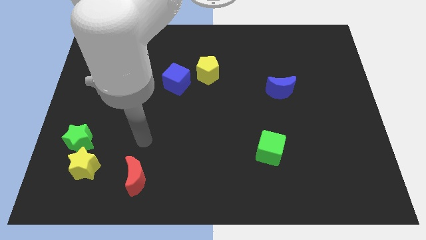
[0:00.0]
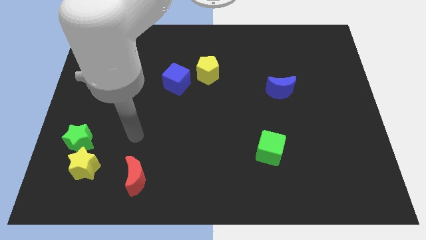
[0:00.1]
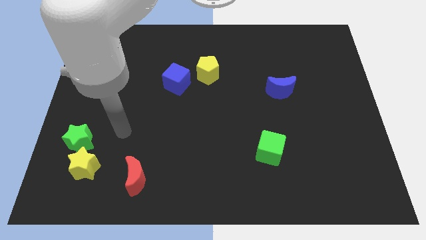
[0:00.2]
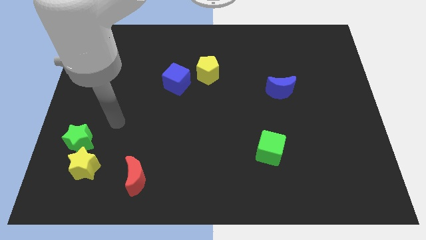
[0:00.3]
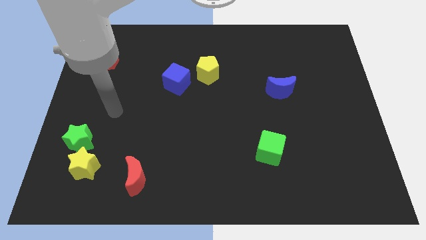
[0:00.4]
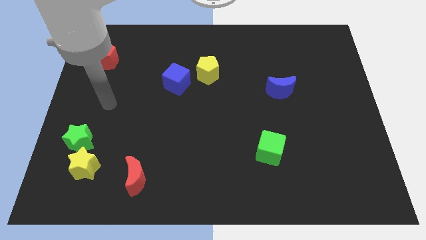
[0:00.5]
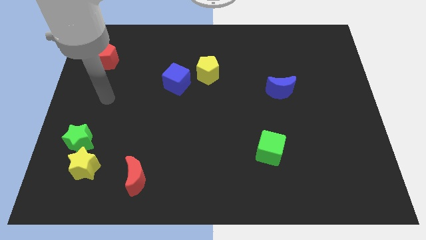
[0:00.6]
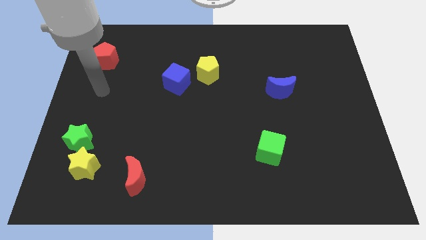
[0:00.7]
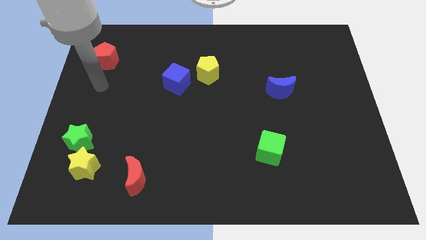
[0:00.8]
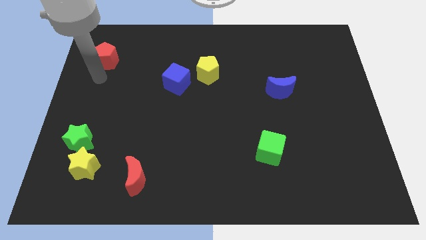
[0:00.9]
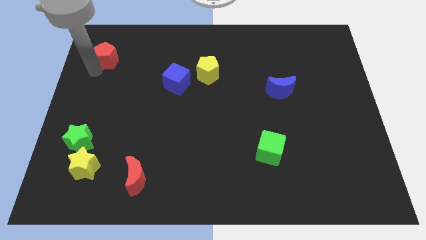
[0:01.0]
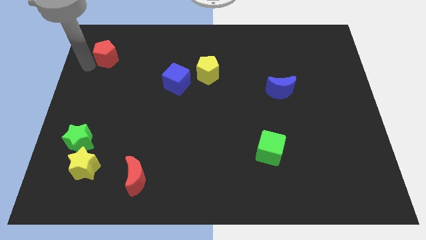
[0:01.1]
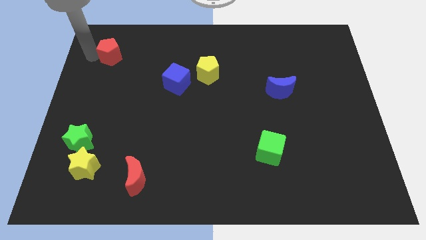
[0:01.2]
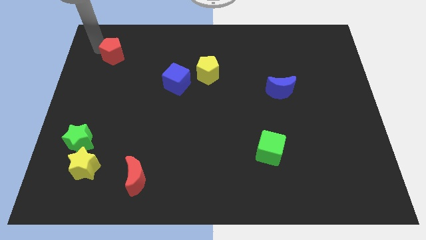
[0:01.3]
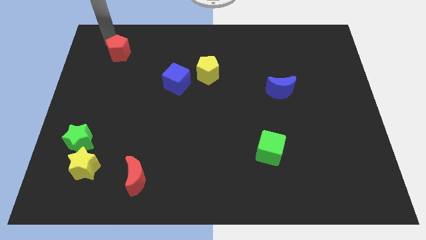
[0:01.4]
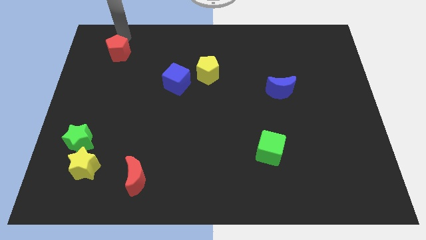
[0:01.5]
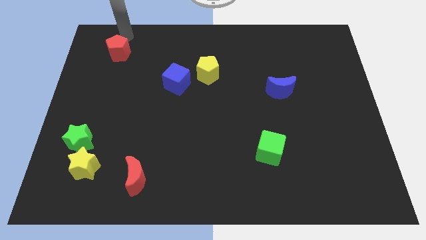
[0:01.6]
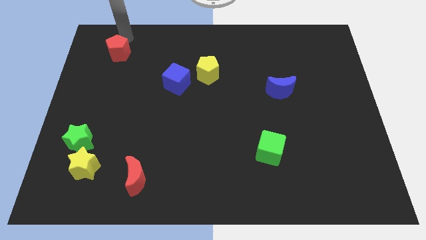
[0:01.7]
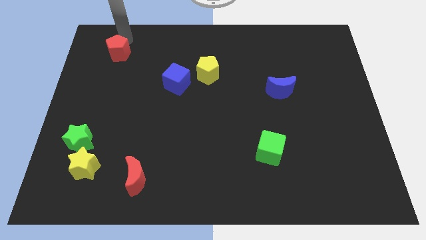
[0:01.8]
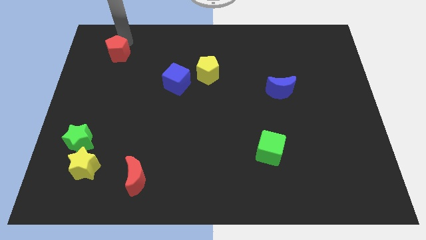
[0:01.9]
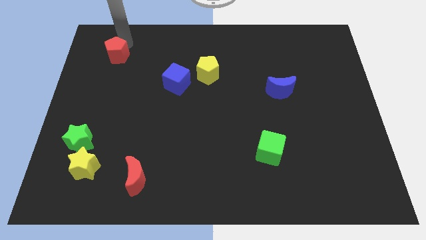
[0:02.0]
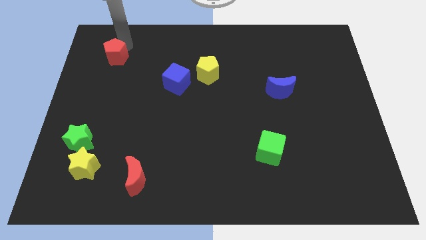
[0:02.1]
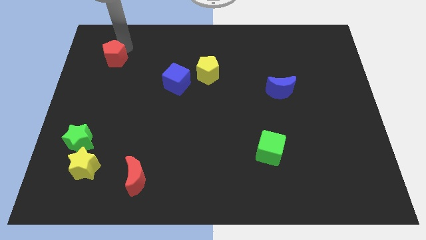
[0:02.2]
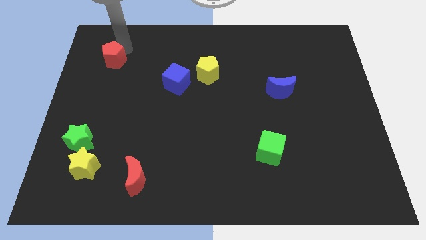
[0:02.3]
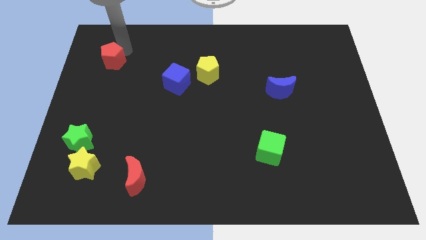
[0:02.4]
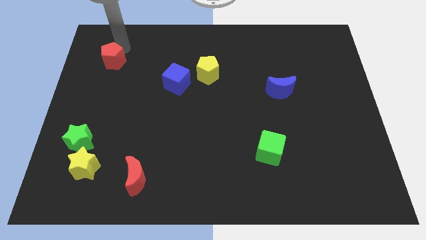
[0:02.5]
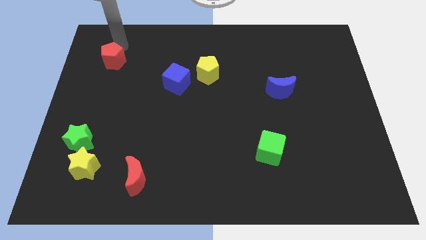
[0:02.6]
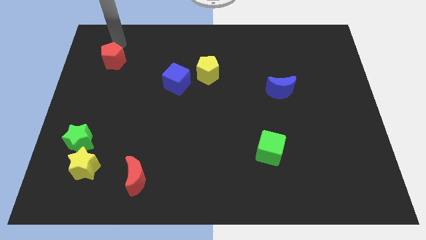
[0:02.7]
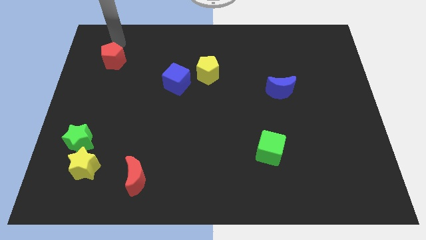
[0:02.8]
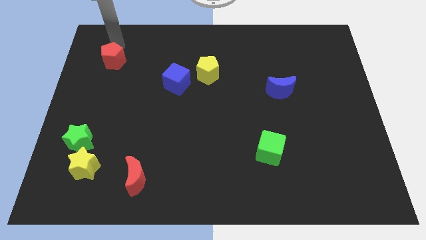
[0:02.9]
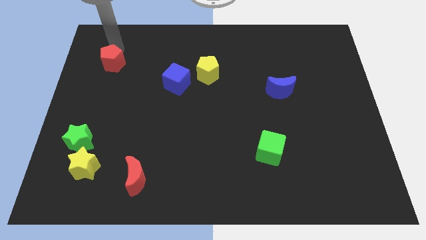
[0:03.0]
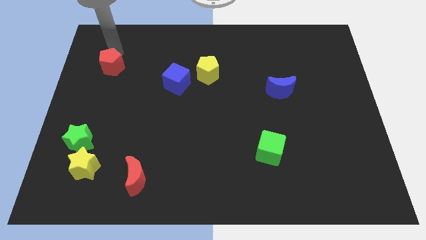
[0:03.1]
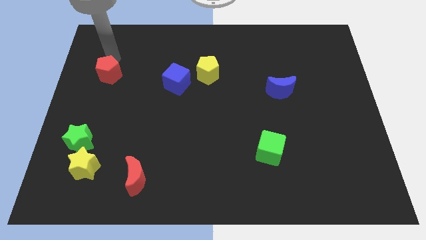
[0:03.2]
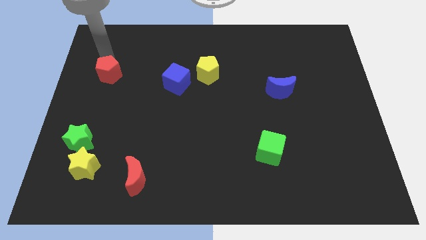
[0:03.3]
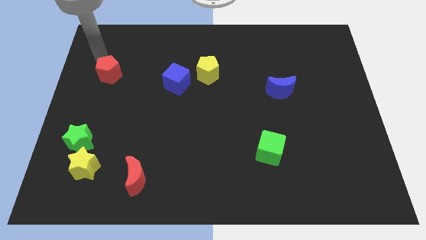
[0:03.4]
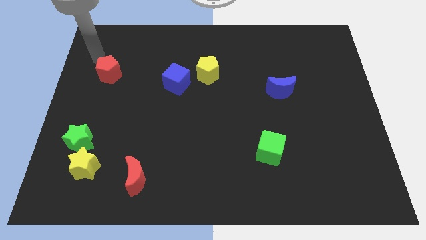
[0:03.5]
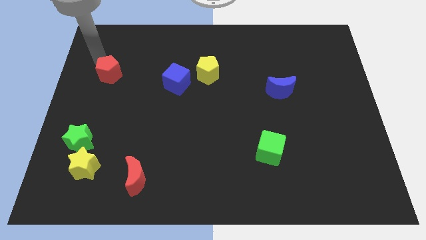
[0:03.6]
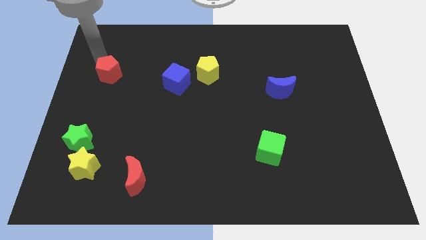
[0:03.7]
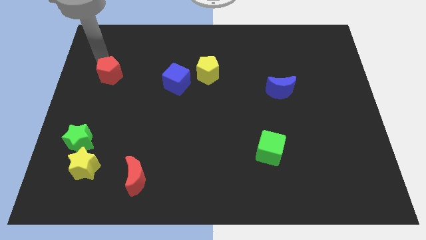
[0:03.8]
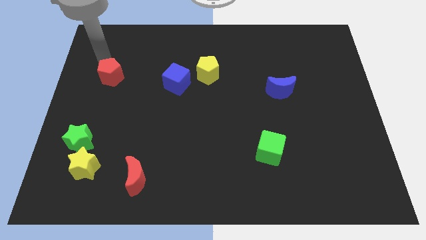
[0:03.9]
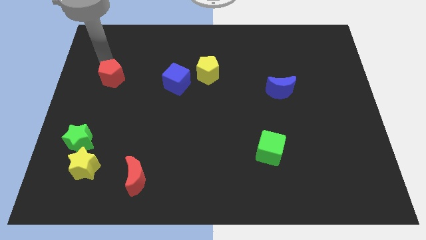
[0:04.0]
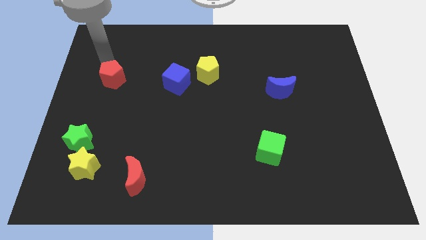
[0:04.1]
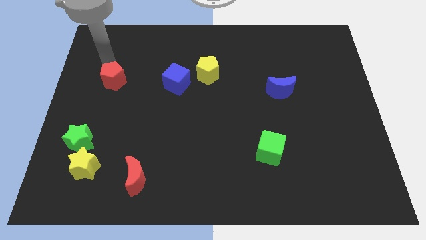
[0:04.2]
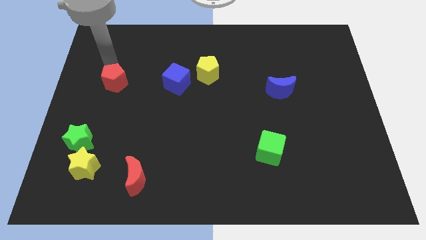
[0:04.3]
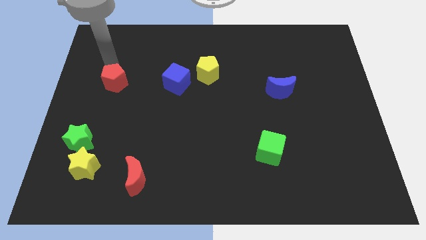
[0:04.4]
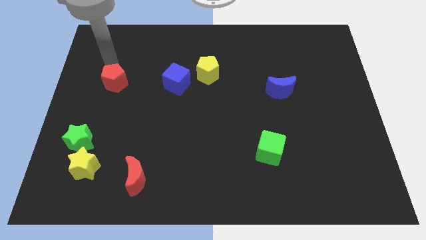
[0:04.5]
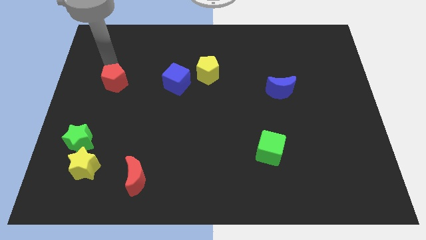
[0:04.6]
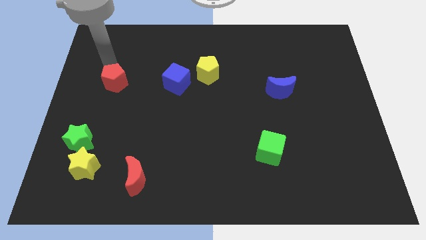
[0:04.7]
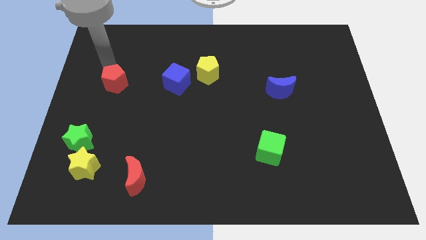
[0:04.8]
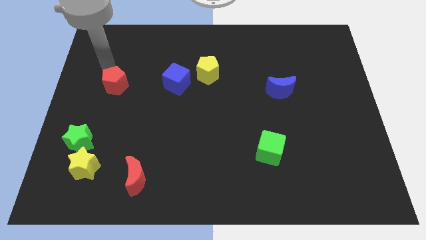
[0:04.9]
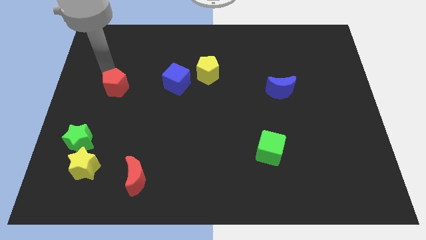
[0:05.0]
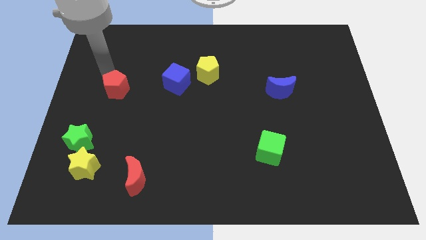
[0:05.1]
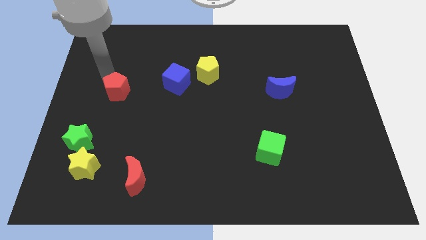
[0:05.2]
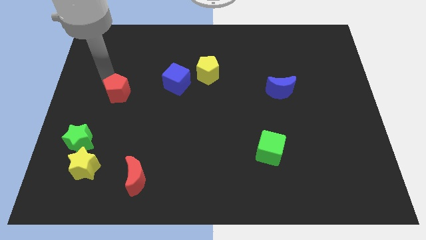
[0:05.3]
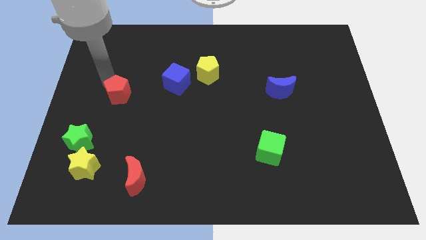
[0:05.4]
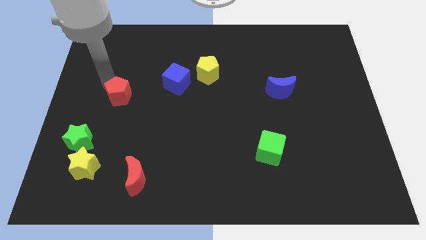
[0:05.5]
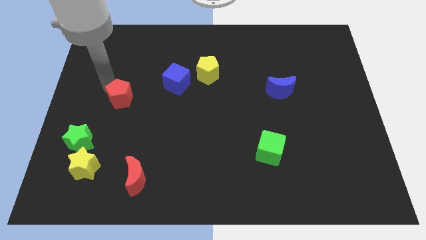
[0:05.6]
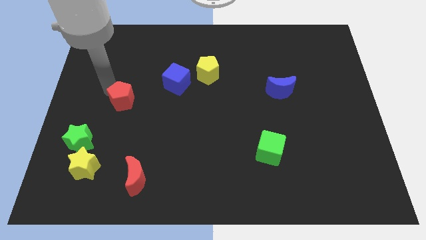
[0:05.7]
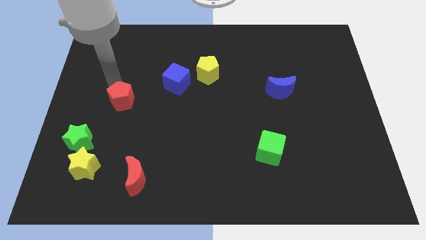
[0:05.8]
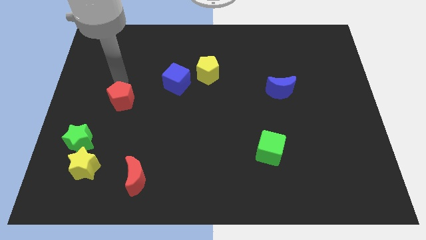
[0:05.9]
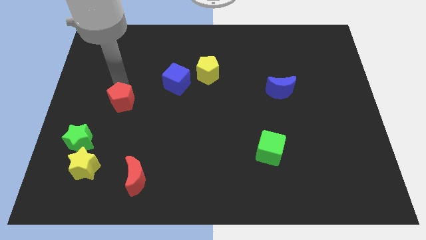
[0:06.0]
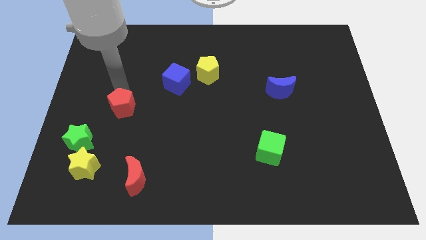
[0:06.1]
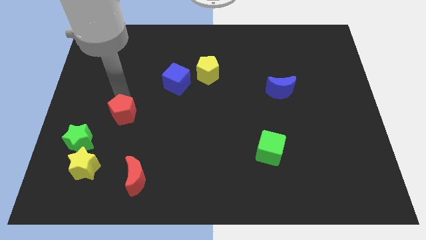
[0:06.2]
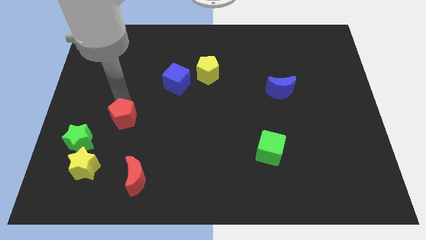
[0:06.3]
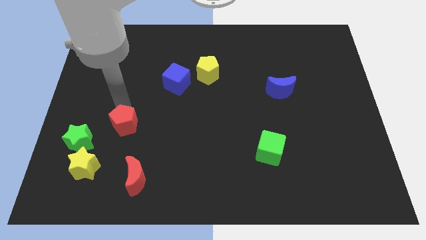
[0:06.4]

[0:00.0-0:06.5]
push the red pentagon right of the green star
